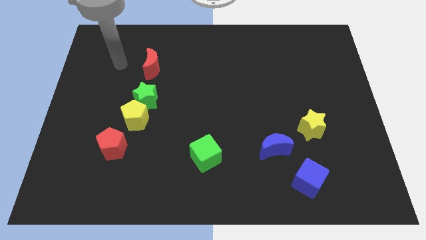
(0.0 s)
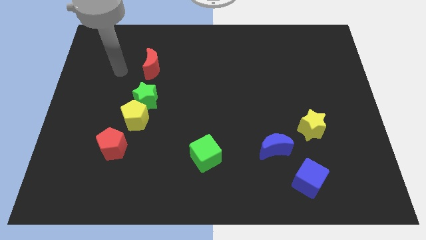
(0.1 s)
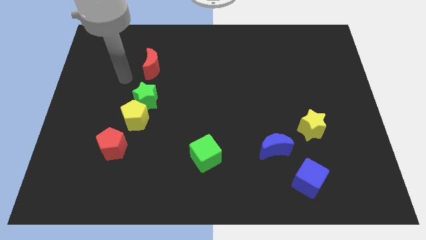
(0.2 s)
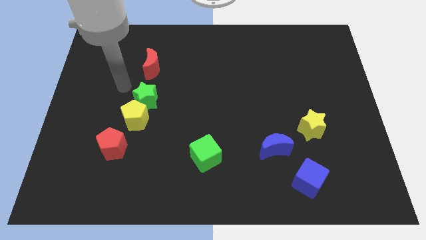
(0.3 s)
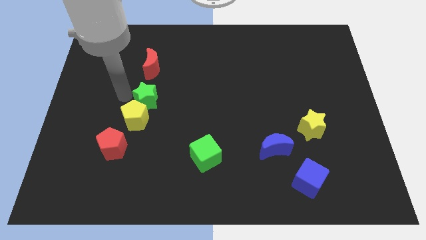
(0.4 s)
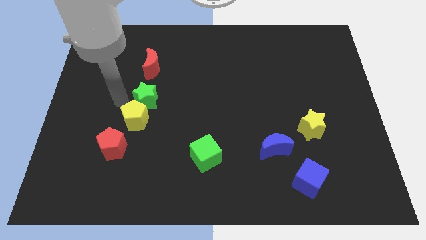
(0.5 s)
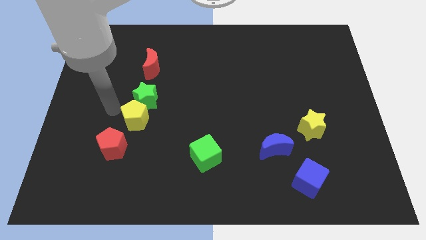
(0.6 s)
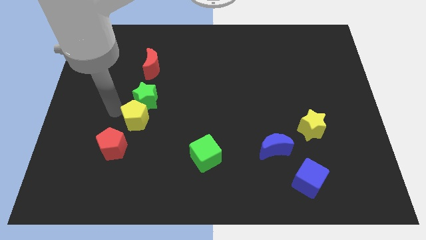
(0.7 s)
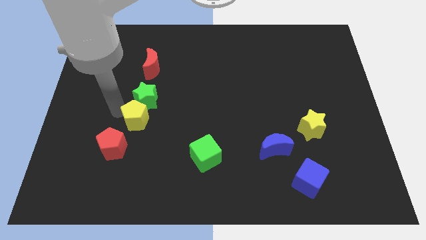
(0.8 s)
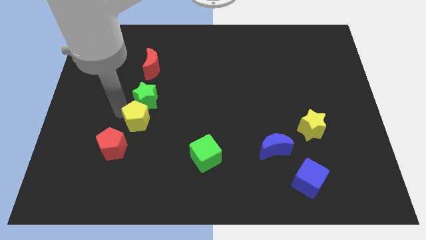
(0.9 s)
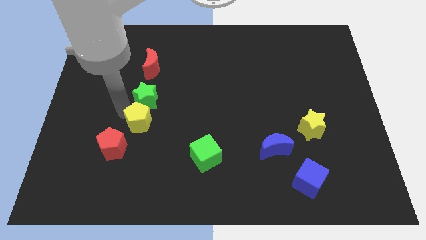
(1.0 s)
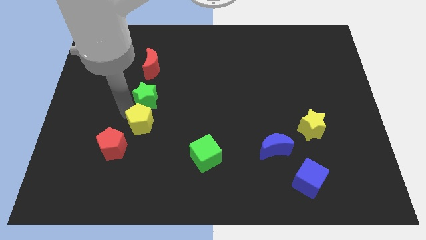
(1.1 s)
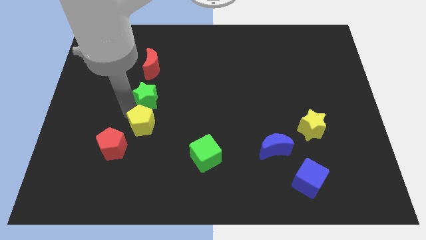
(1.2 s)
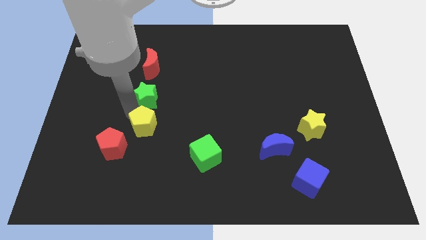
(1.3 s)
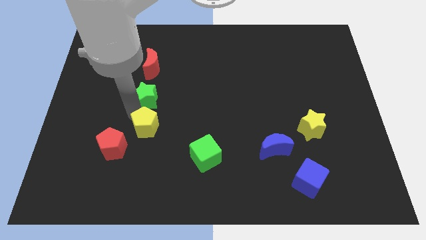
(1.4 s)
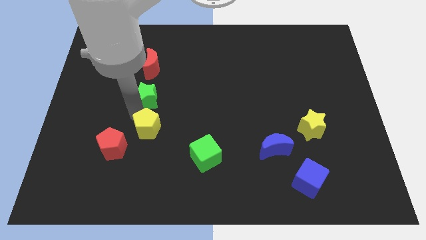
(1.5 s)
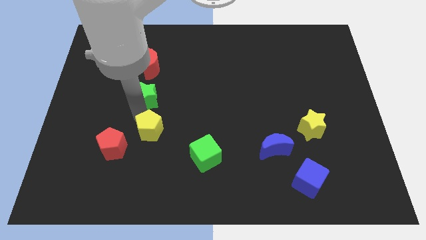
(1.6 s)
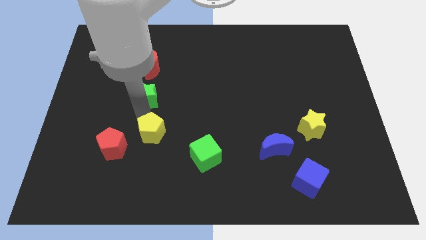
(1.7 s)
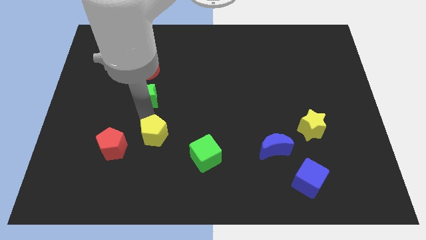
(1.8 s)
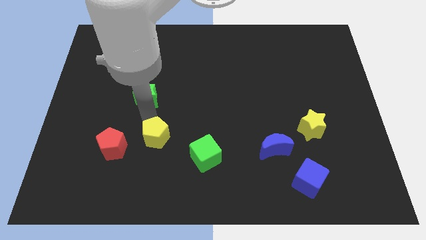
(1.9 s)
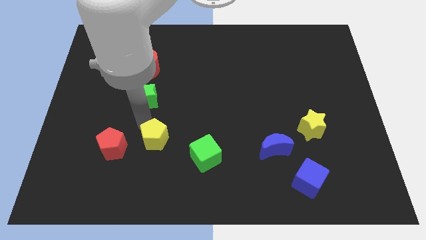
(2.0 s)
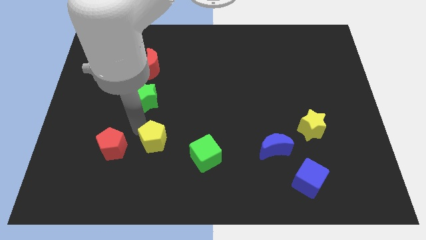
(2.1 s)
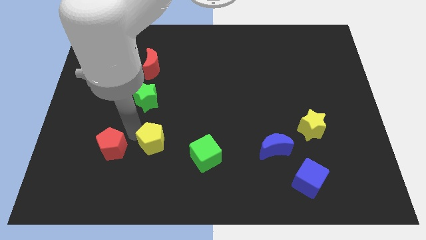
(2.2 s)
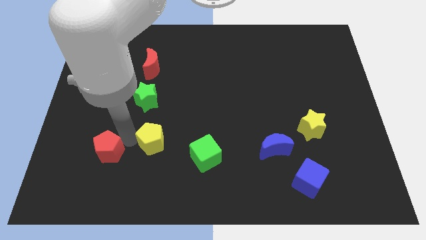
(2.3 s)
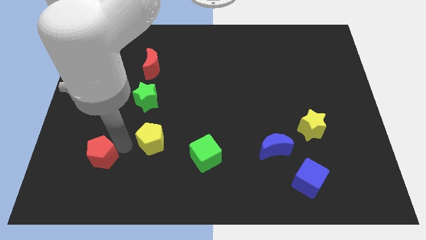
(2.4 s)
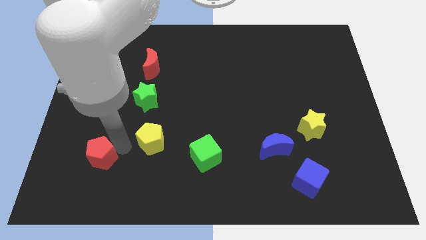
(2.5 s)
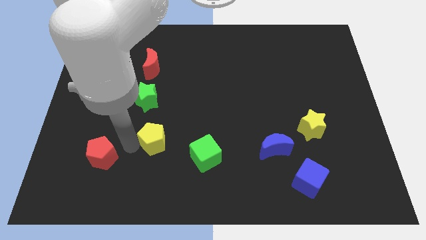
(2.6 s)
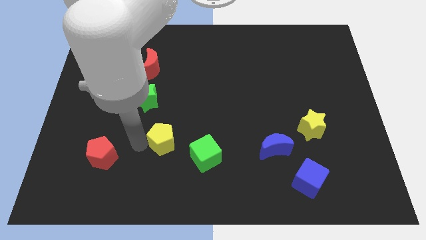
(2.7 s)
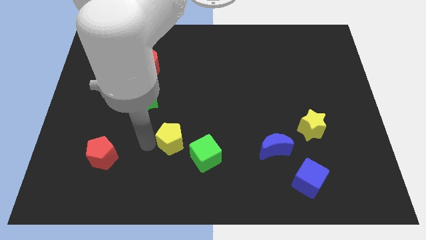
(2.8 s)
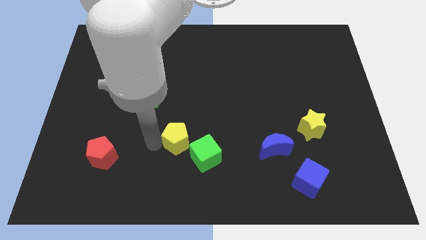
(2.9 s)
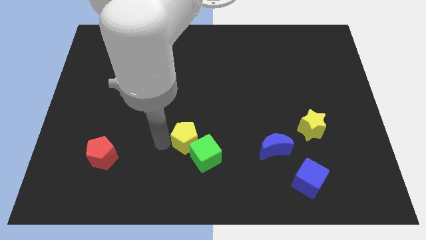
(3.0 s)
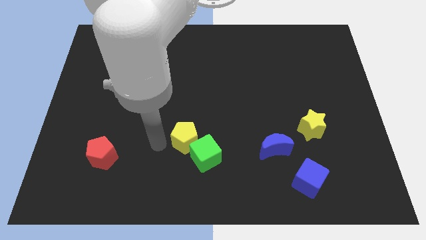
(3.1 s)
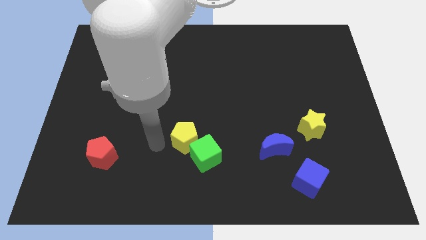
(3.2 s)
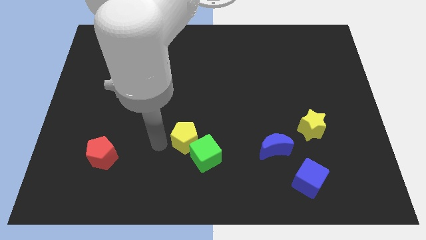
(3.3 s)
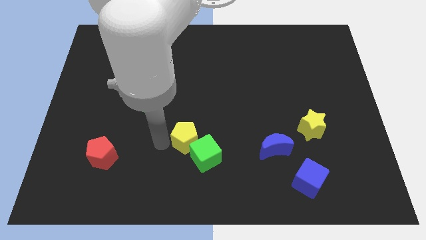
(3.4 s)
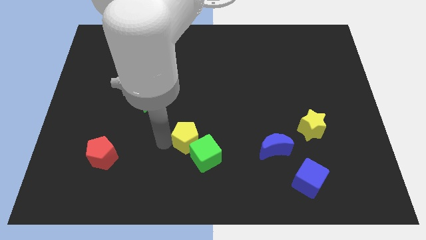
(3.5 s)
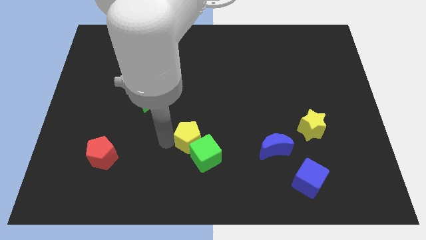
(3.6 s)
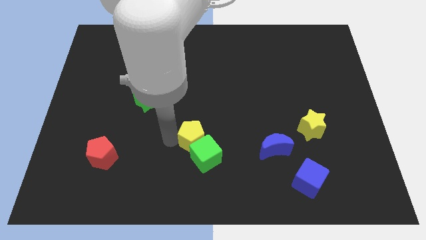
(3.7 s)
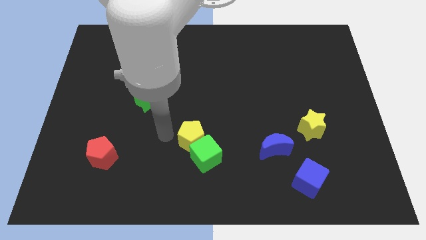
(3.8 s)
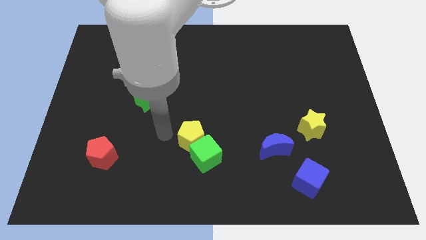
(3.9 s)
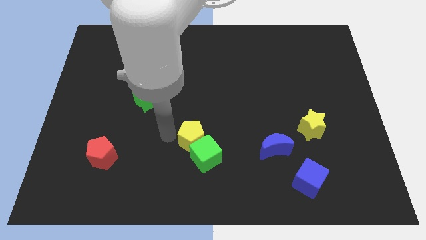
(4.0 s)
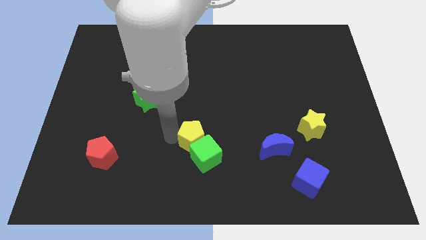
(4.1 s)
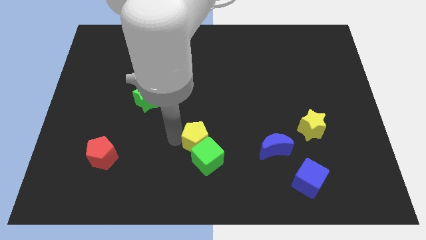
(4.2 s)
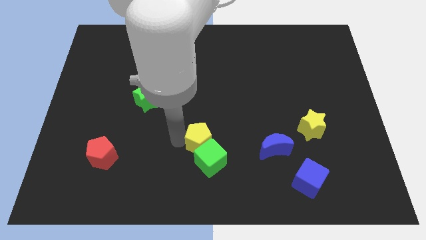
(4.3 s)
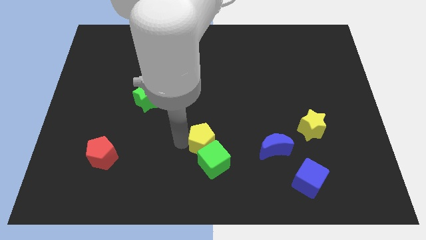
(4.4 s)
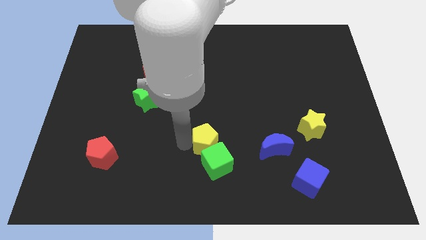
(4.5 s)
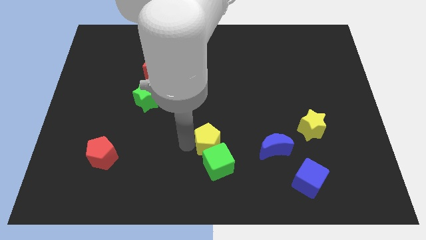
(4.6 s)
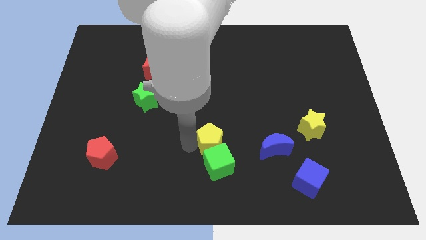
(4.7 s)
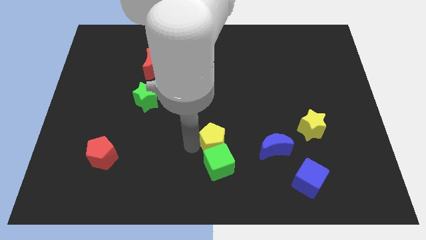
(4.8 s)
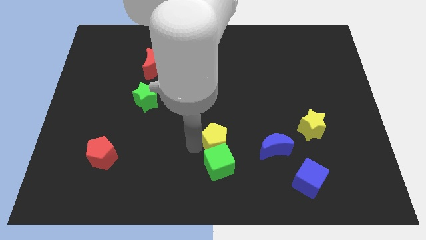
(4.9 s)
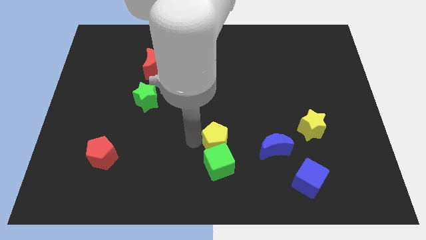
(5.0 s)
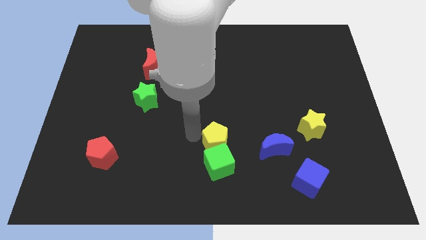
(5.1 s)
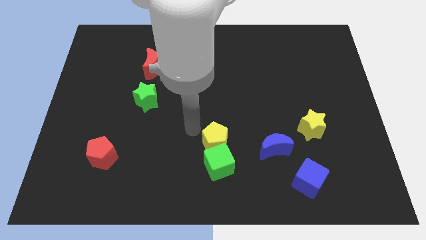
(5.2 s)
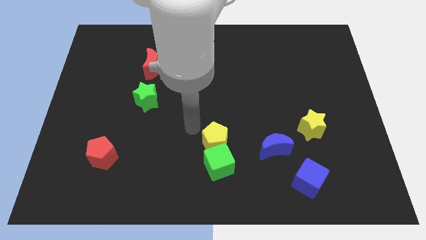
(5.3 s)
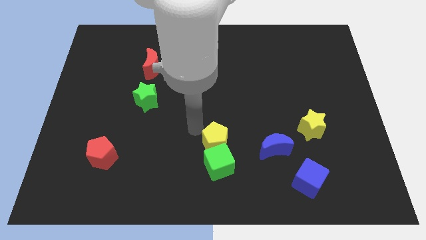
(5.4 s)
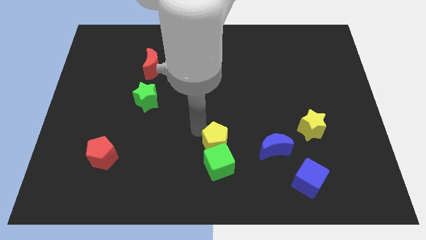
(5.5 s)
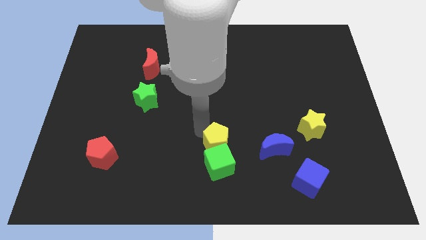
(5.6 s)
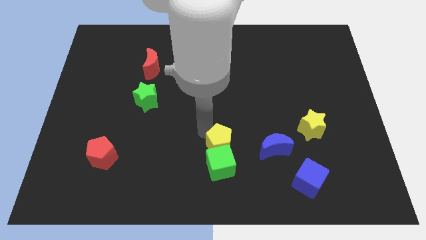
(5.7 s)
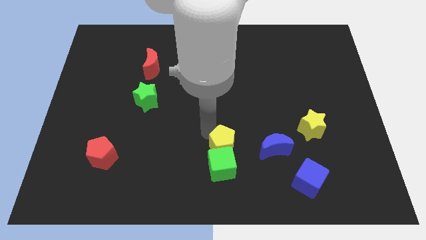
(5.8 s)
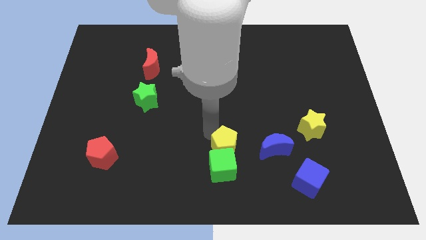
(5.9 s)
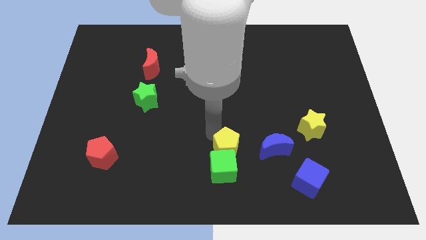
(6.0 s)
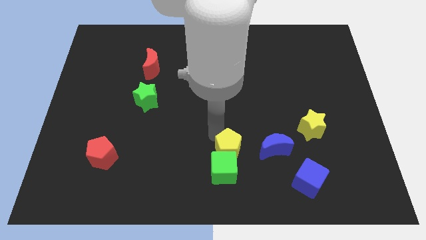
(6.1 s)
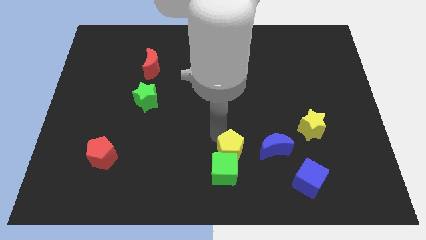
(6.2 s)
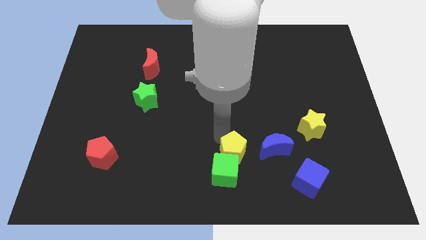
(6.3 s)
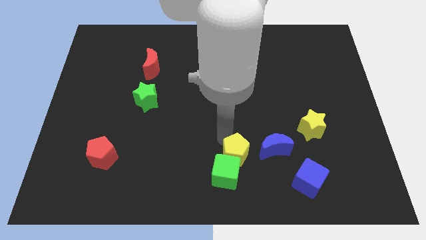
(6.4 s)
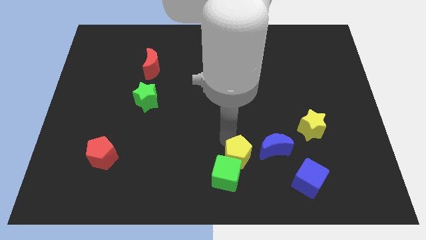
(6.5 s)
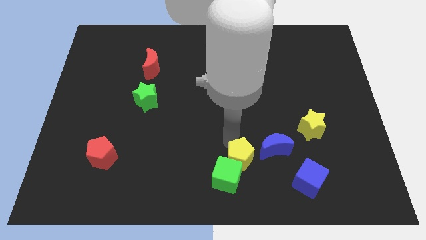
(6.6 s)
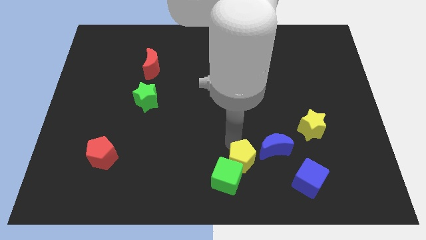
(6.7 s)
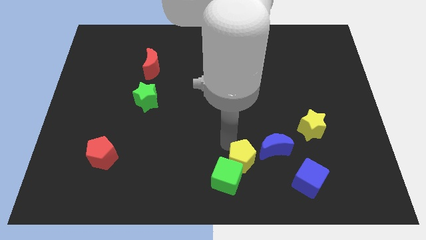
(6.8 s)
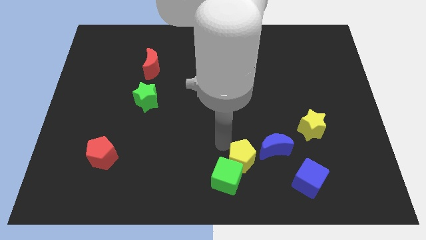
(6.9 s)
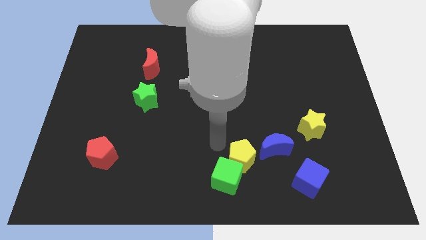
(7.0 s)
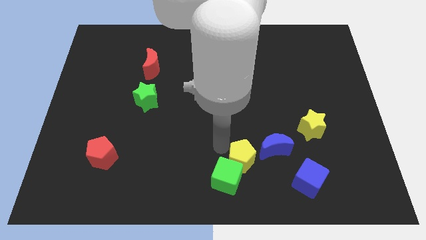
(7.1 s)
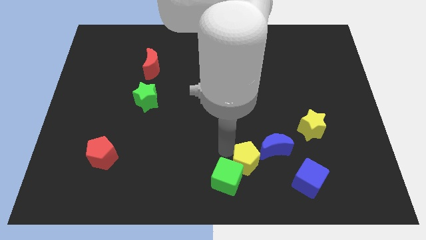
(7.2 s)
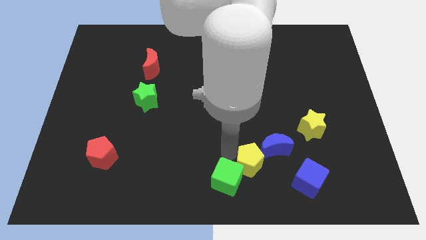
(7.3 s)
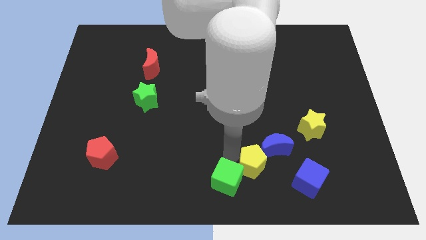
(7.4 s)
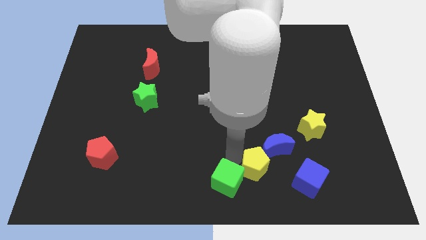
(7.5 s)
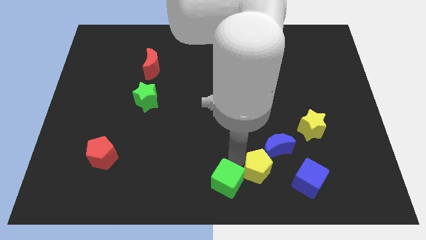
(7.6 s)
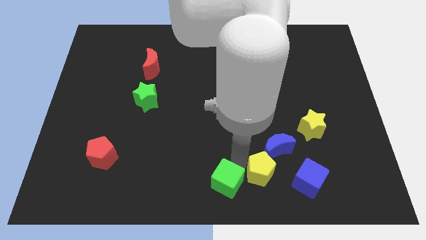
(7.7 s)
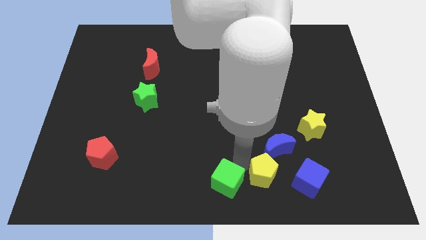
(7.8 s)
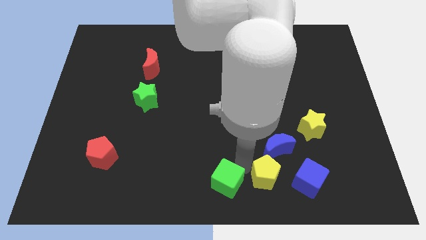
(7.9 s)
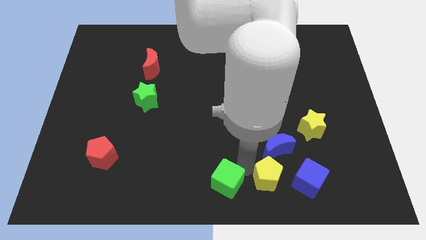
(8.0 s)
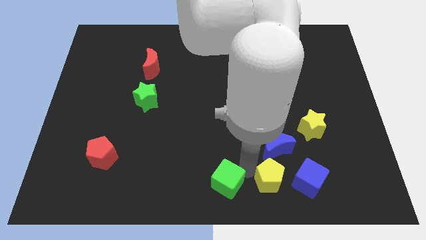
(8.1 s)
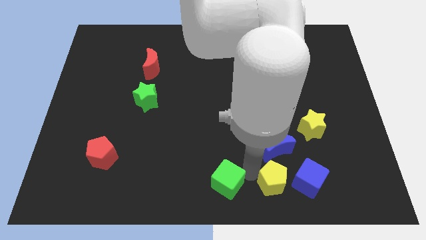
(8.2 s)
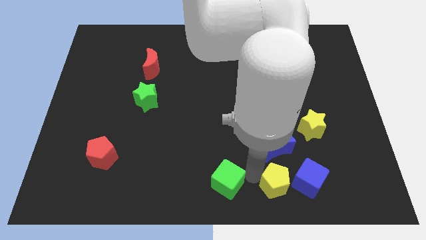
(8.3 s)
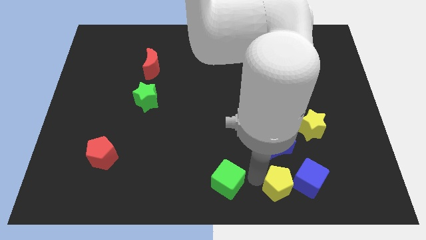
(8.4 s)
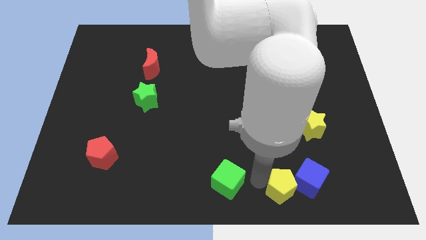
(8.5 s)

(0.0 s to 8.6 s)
put the yellow pentagon towards the blue cube
